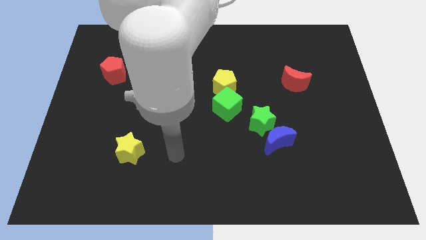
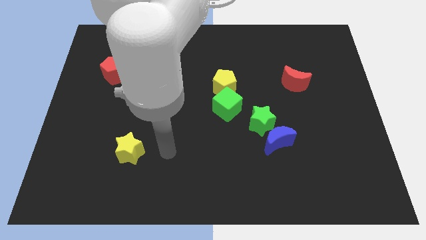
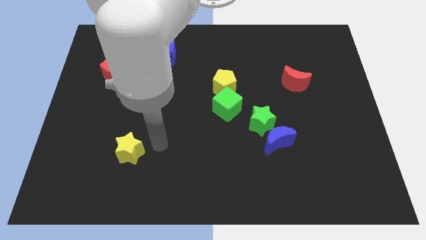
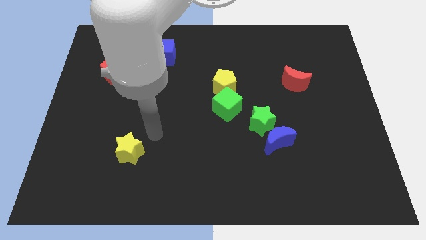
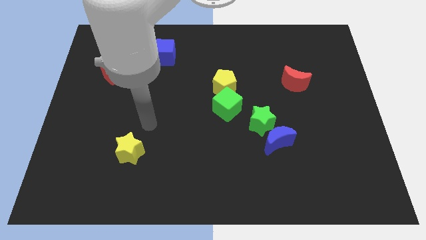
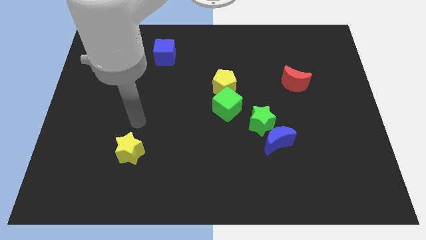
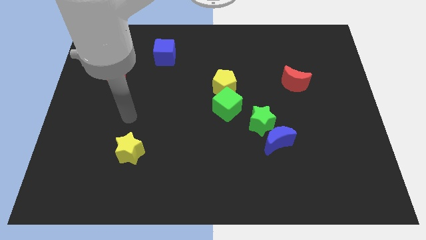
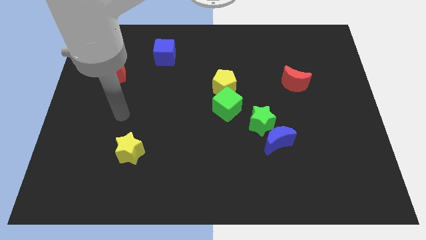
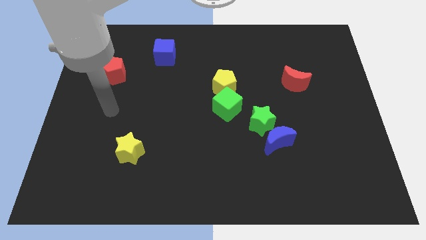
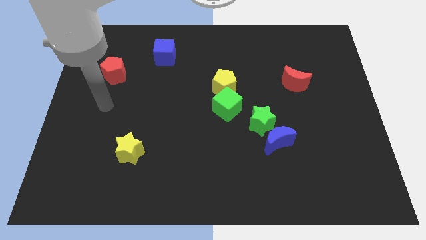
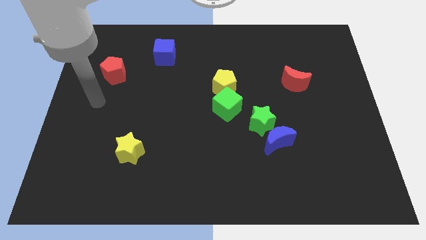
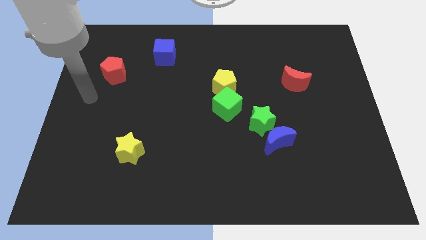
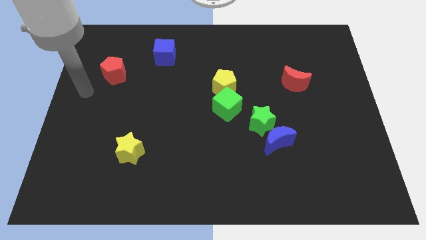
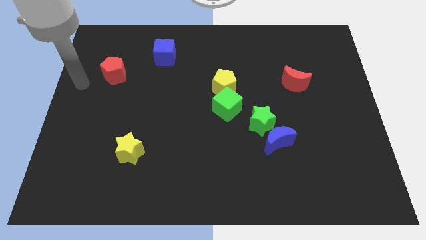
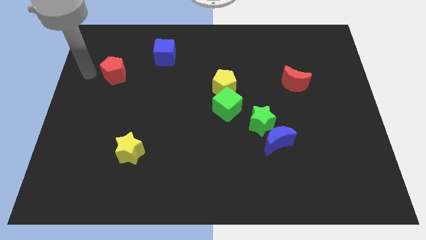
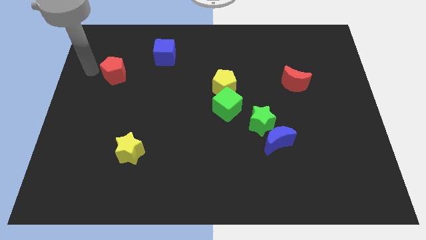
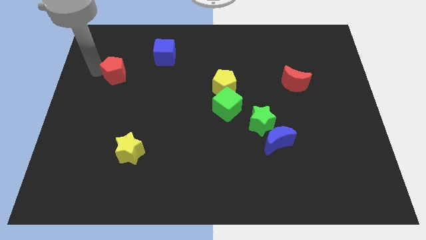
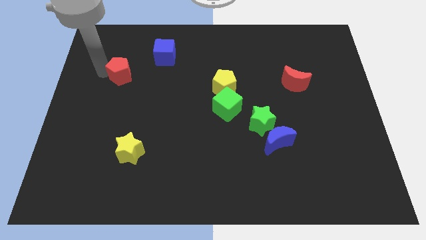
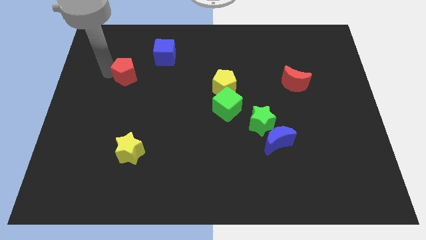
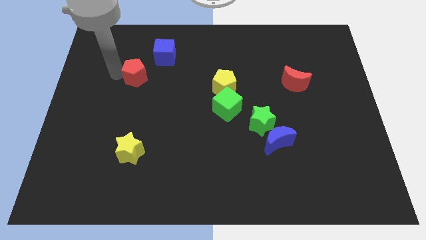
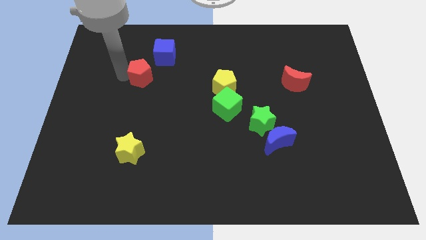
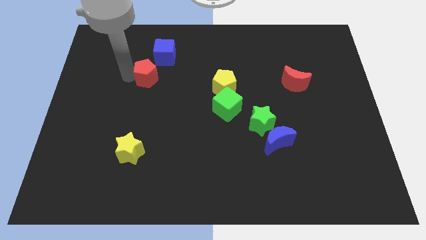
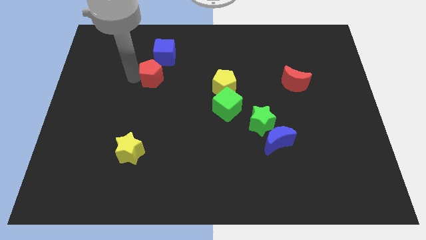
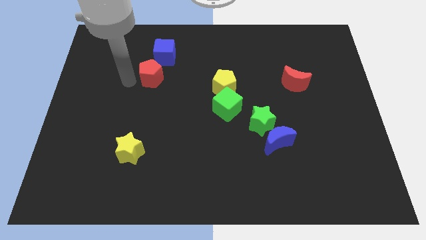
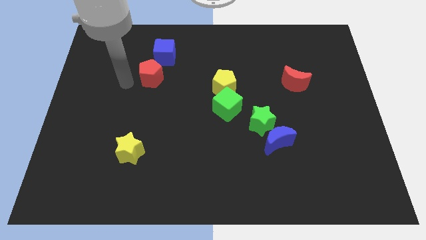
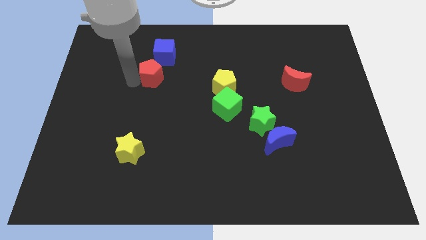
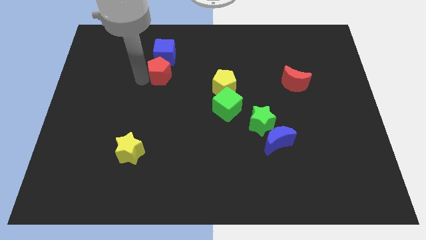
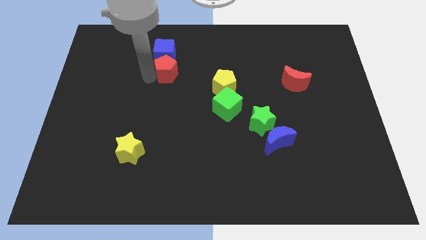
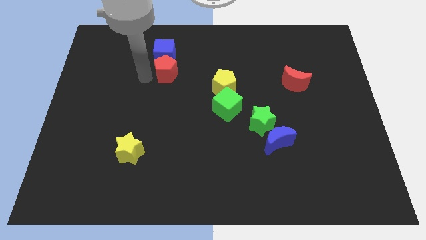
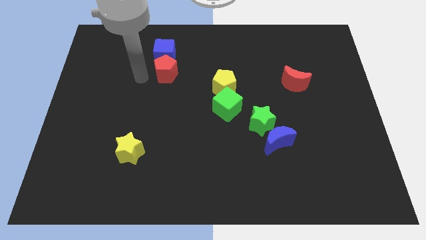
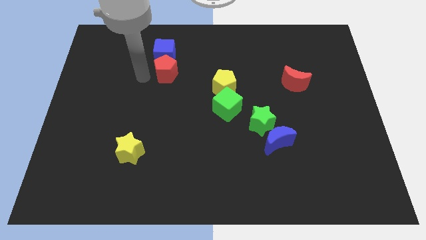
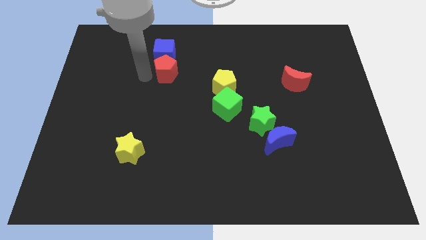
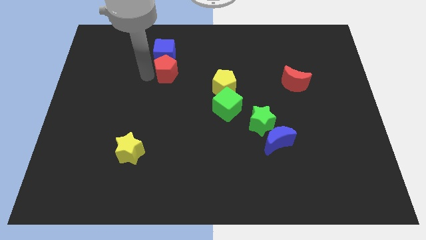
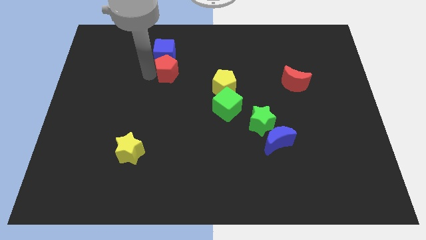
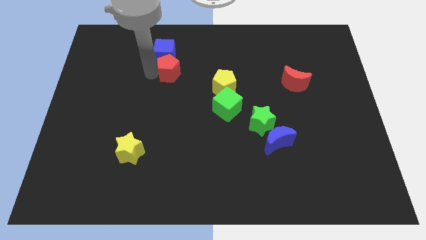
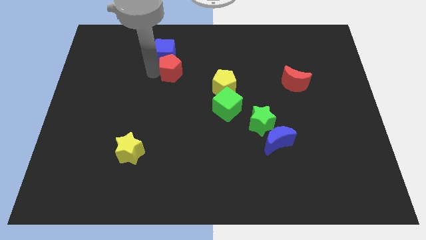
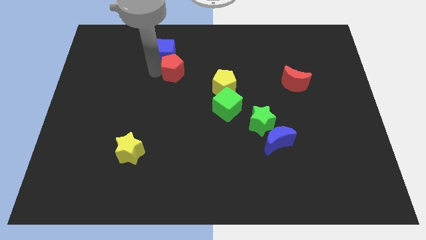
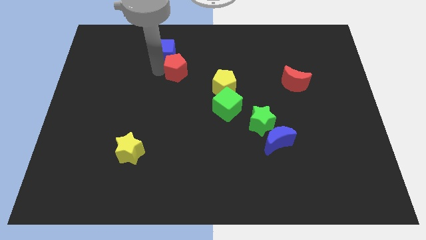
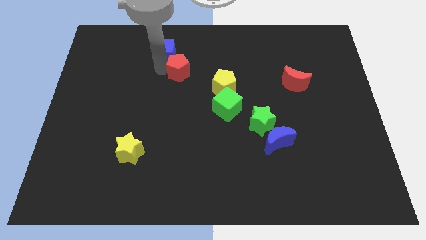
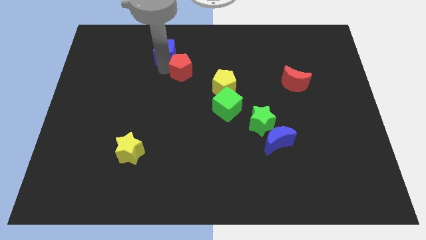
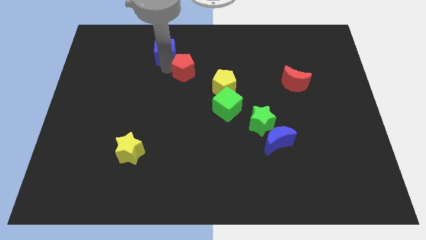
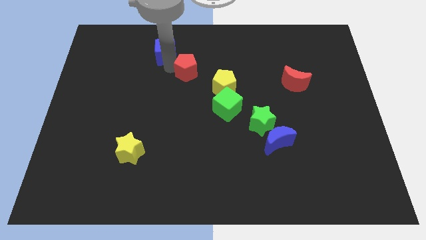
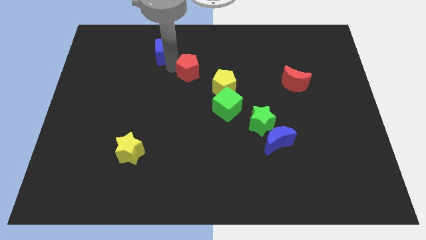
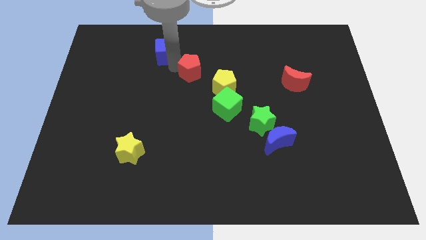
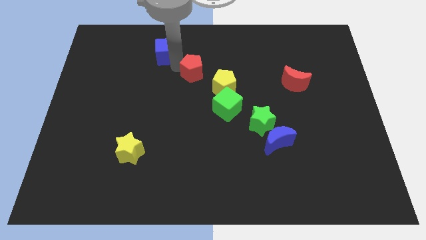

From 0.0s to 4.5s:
slide the red pentagon to the right

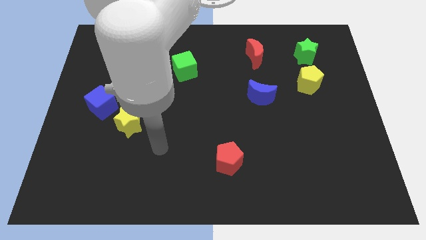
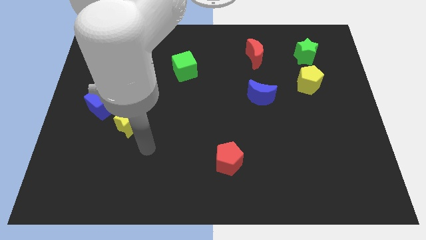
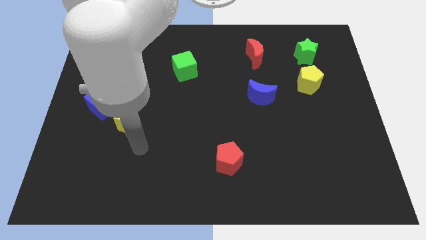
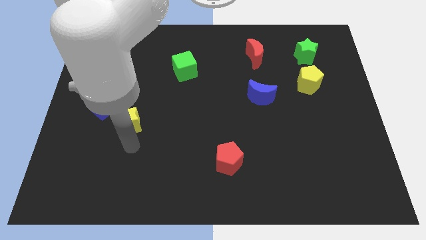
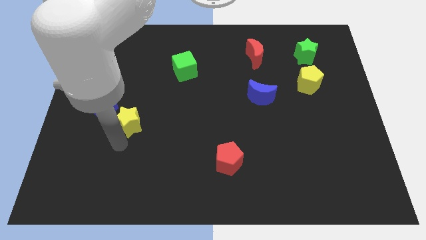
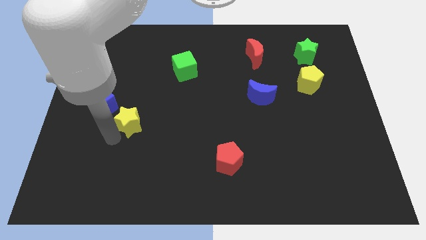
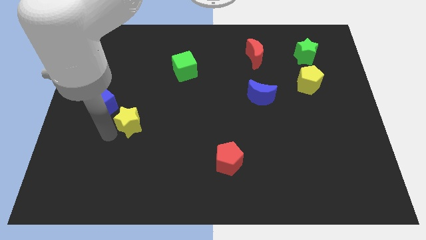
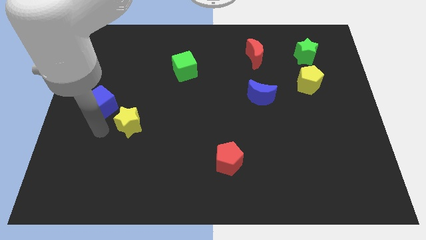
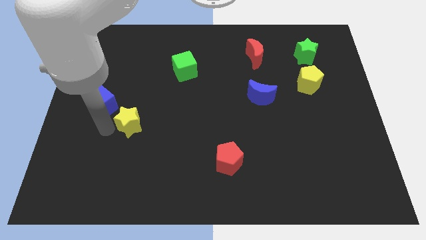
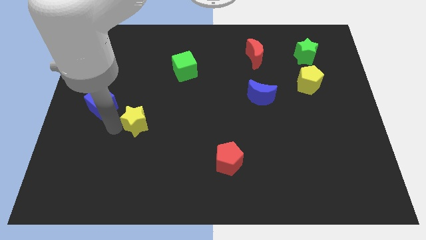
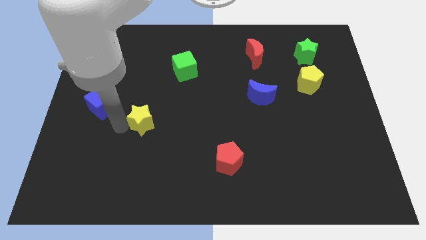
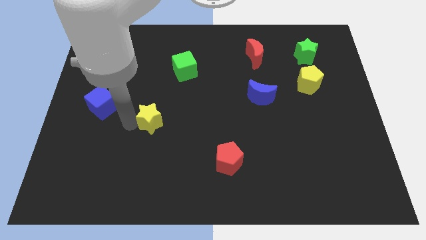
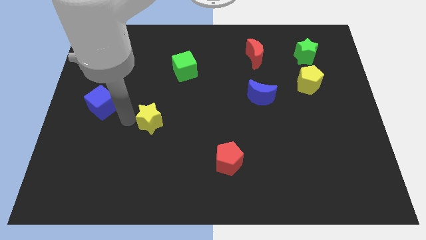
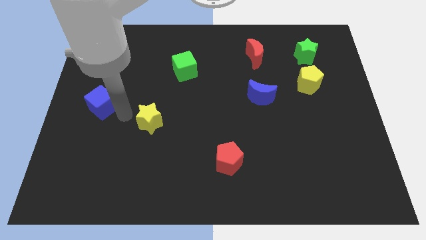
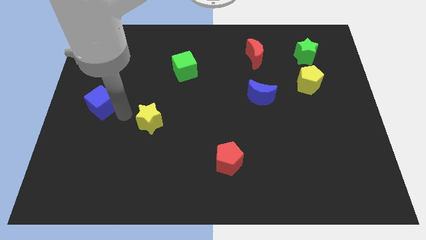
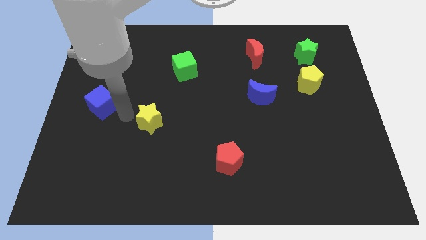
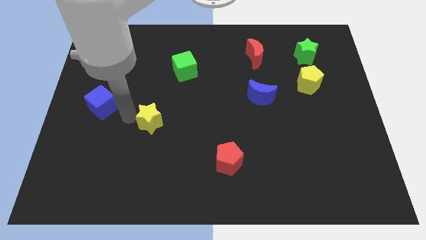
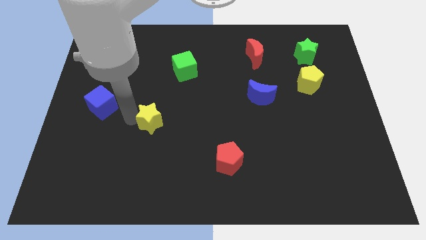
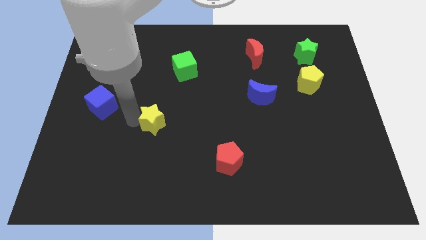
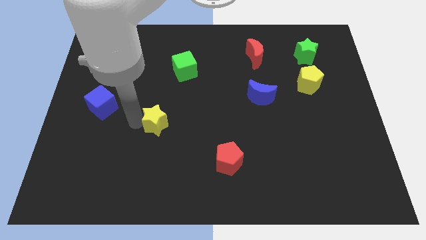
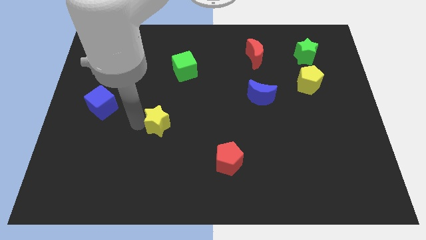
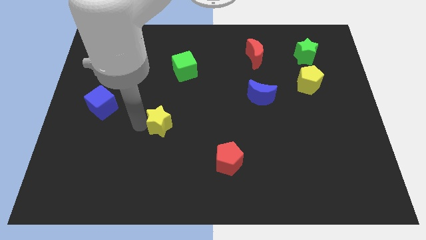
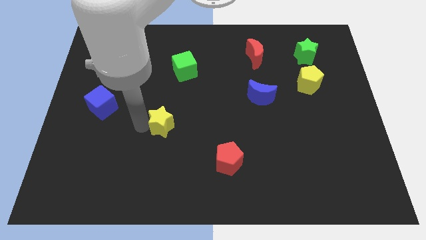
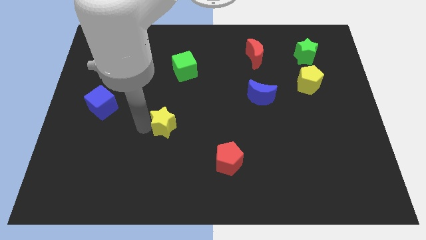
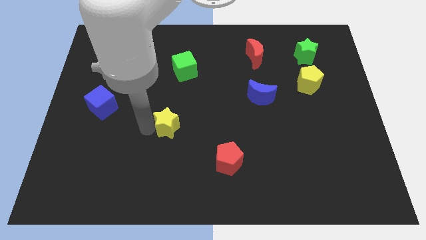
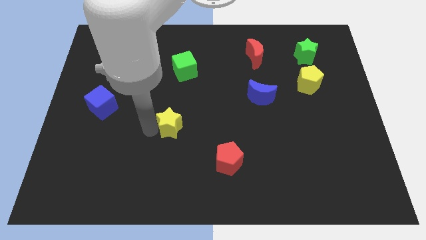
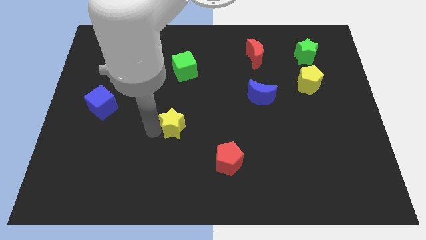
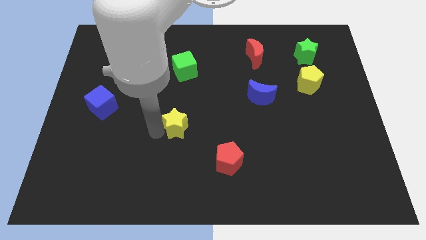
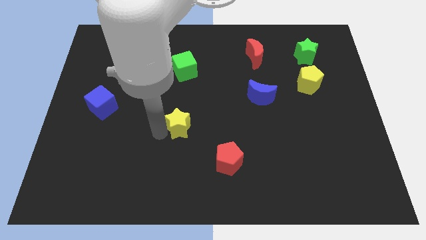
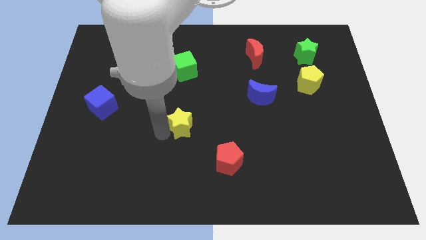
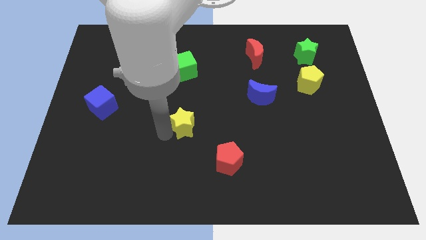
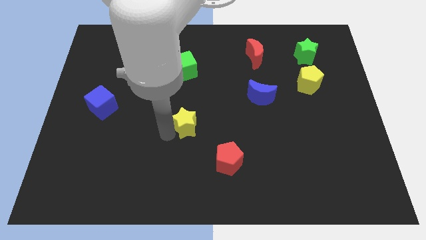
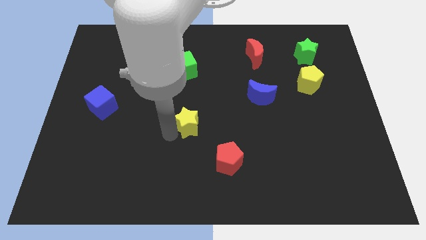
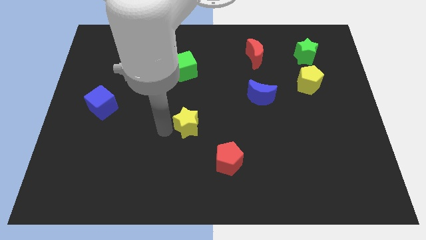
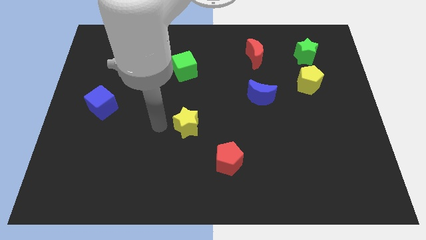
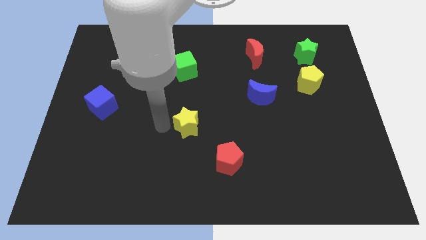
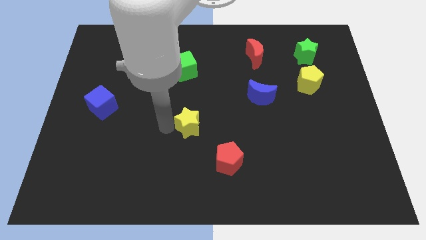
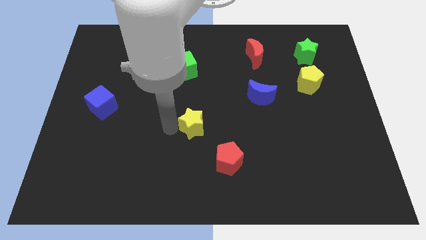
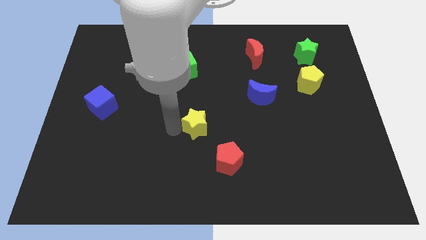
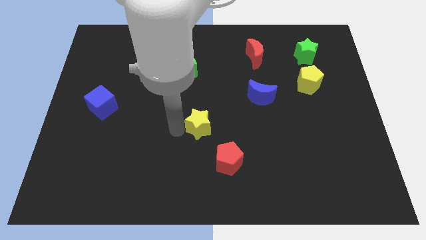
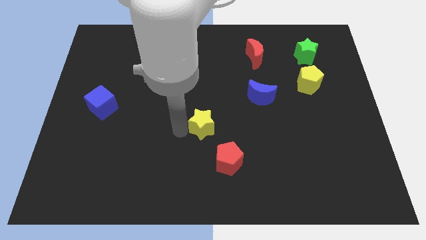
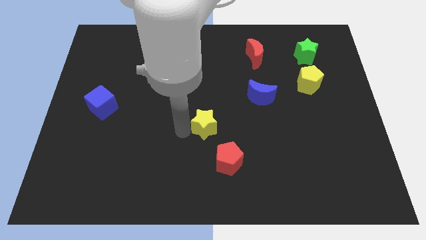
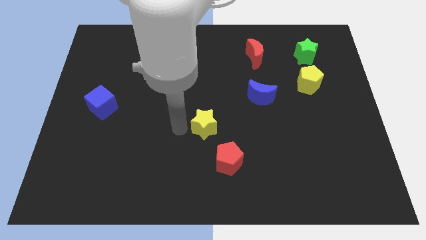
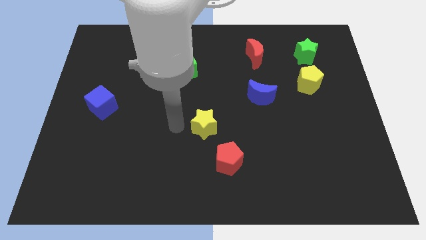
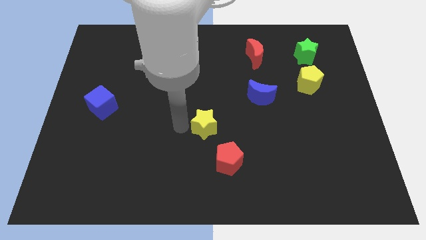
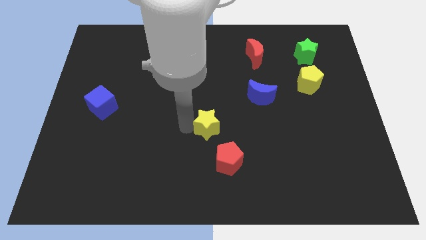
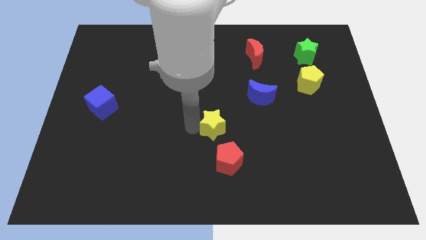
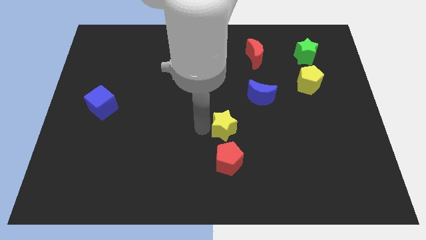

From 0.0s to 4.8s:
push the yellow star right
